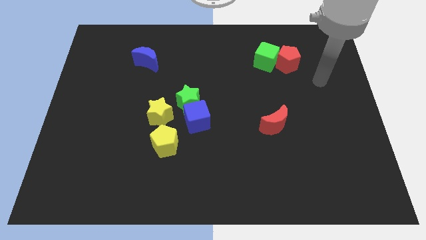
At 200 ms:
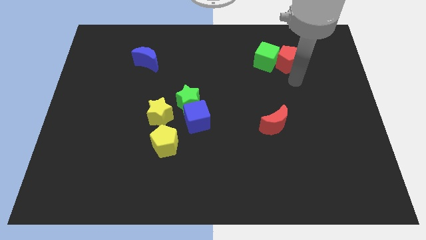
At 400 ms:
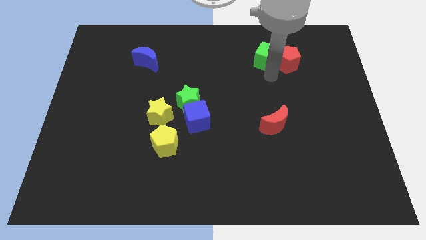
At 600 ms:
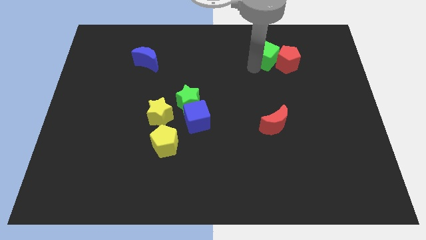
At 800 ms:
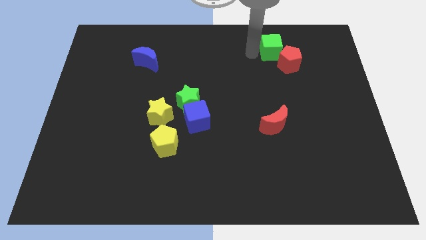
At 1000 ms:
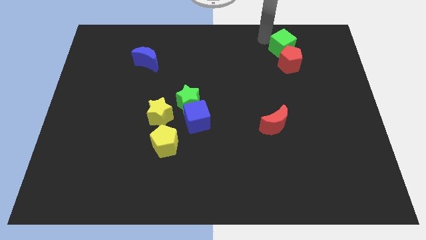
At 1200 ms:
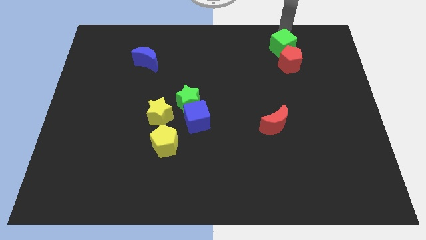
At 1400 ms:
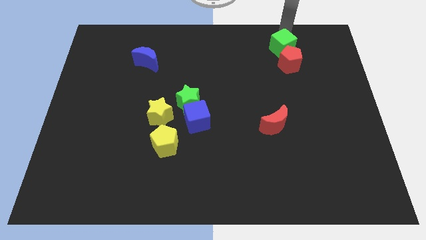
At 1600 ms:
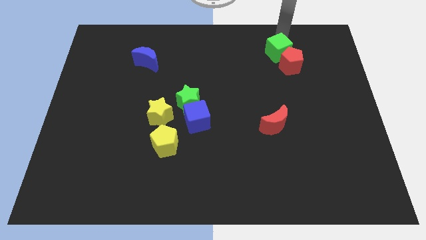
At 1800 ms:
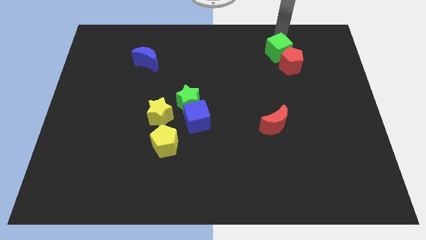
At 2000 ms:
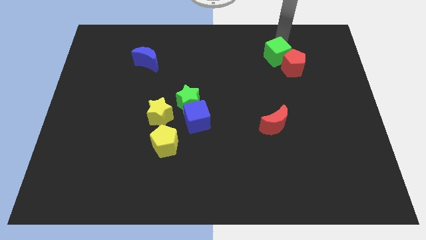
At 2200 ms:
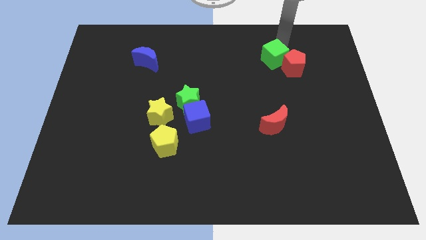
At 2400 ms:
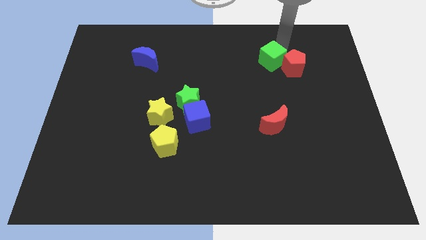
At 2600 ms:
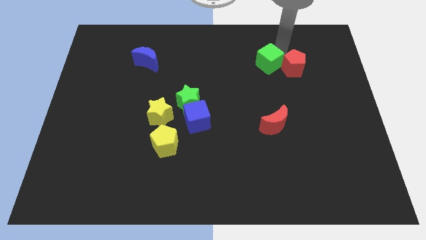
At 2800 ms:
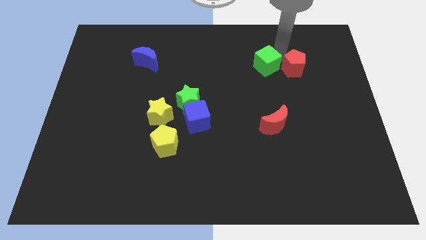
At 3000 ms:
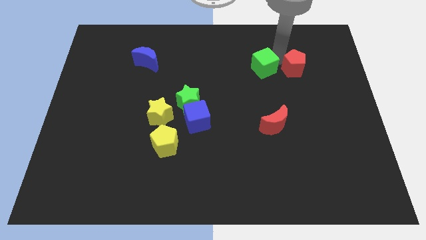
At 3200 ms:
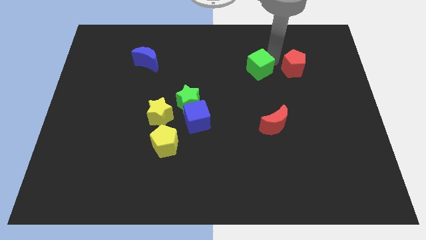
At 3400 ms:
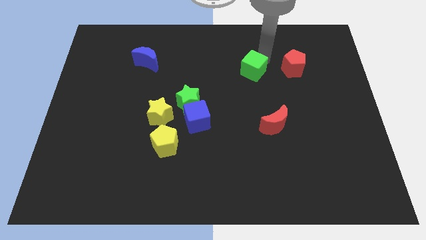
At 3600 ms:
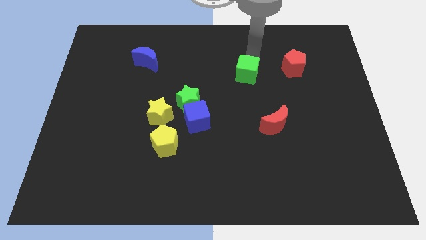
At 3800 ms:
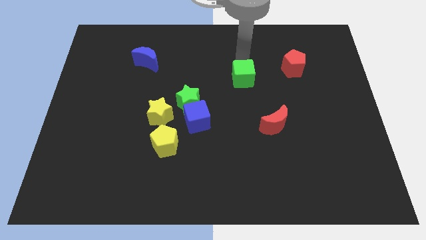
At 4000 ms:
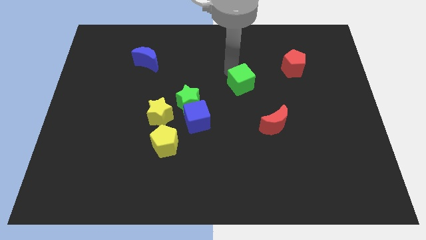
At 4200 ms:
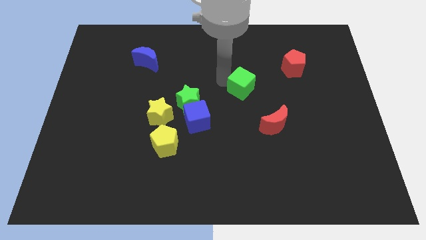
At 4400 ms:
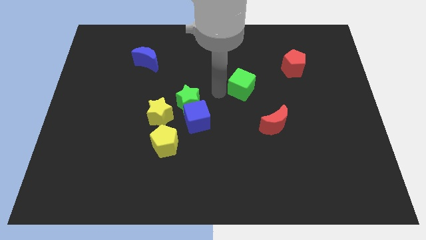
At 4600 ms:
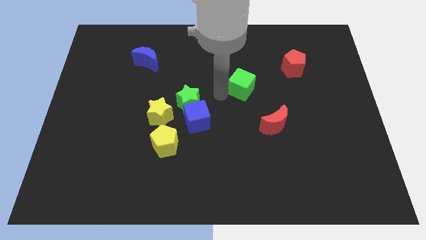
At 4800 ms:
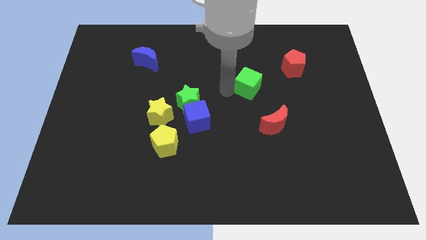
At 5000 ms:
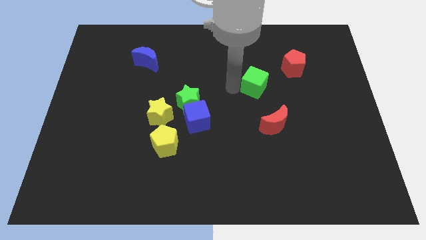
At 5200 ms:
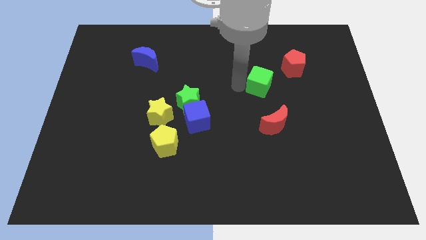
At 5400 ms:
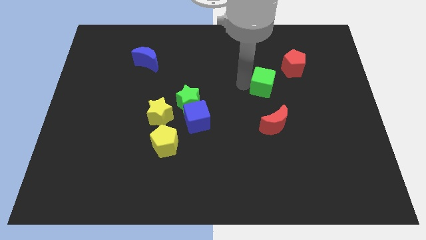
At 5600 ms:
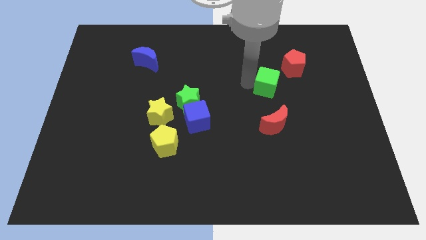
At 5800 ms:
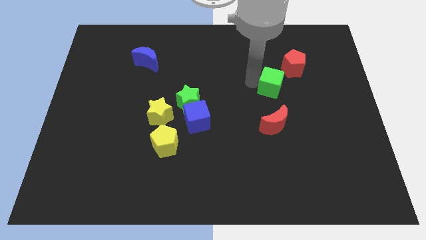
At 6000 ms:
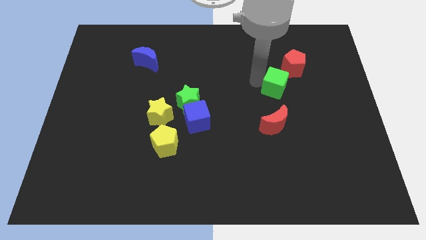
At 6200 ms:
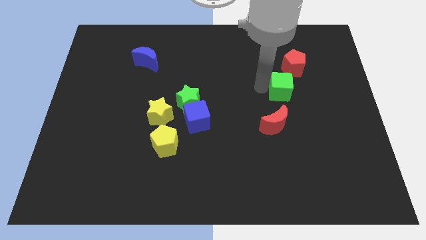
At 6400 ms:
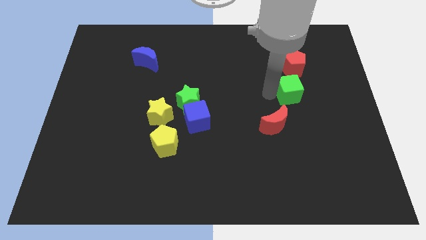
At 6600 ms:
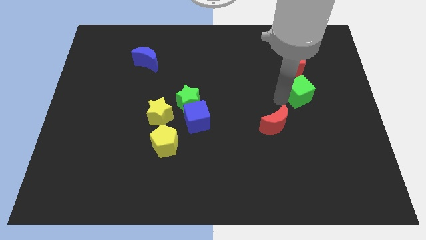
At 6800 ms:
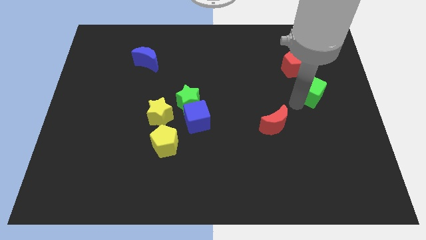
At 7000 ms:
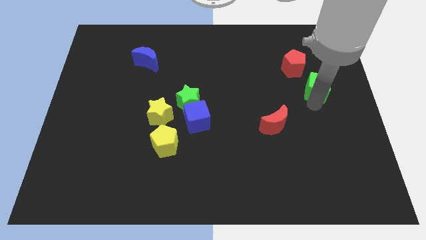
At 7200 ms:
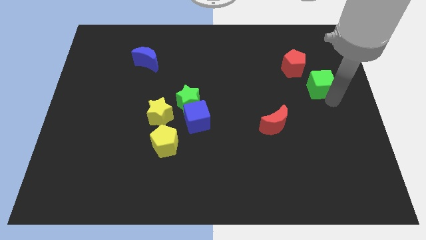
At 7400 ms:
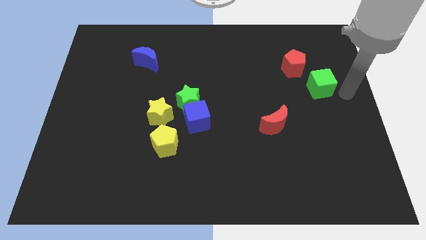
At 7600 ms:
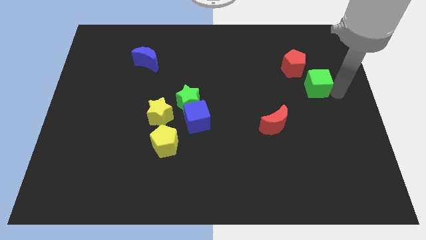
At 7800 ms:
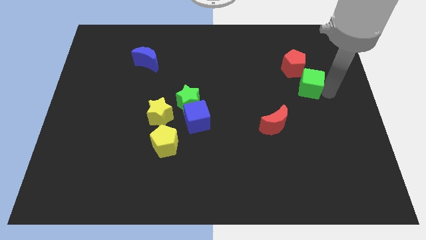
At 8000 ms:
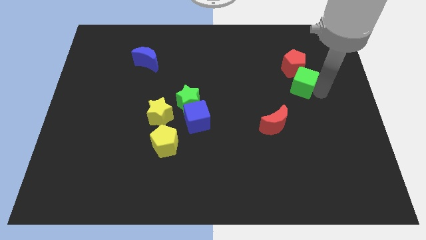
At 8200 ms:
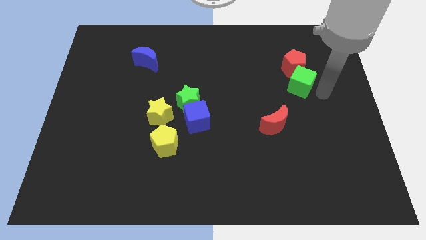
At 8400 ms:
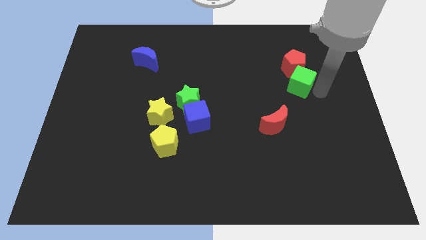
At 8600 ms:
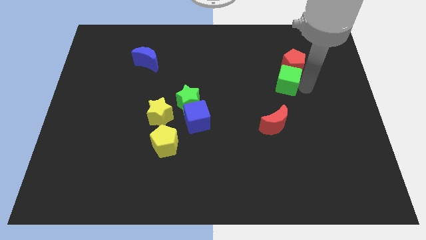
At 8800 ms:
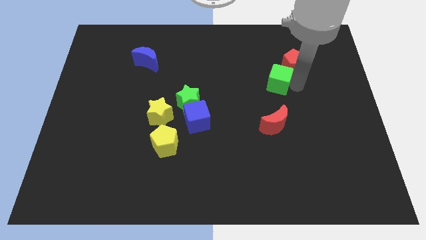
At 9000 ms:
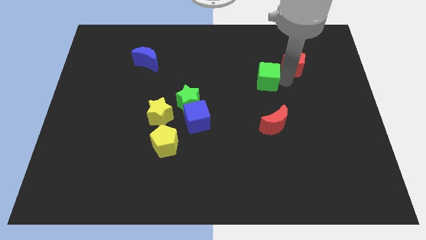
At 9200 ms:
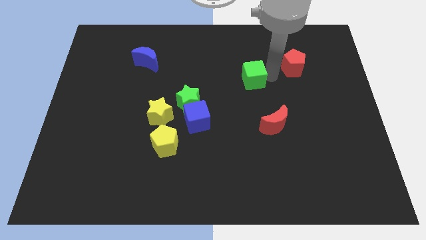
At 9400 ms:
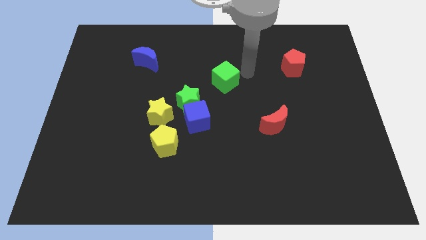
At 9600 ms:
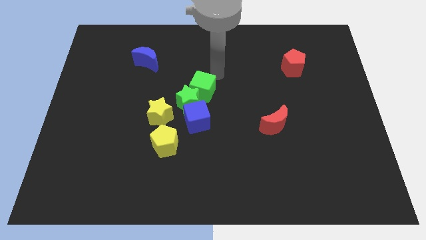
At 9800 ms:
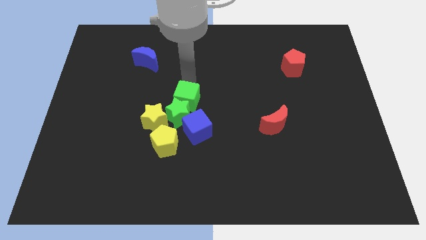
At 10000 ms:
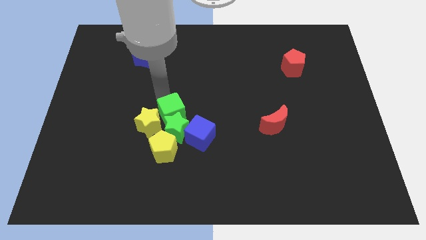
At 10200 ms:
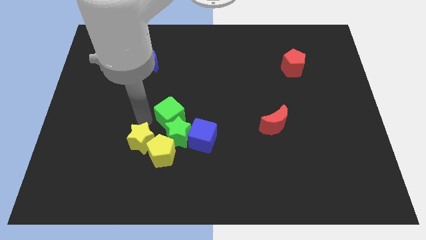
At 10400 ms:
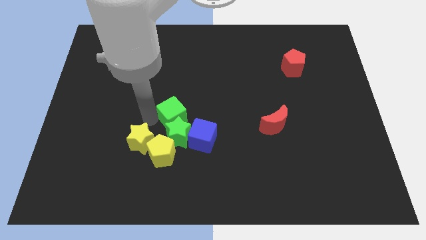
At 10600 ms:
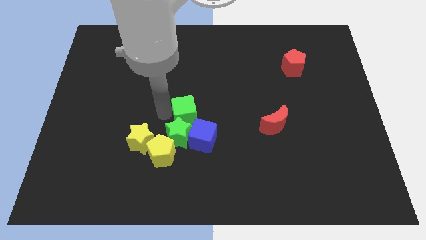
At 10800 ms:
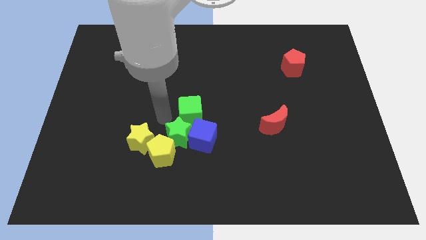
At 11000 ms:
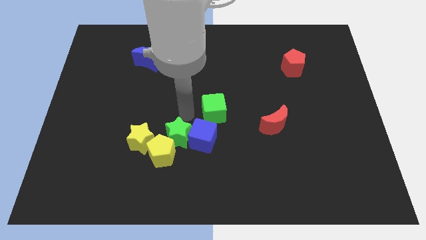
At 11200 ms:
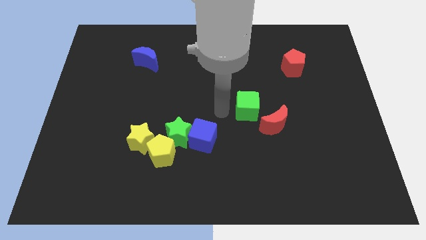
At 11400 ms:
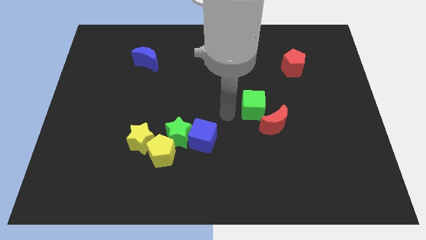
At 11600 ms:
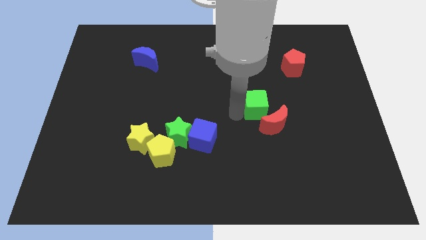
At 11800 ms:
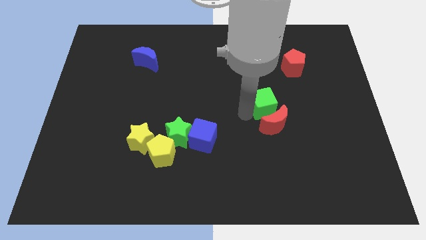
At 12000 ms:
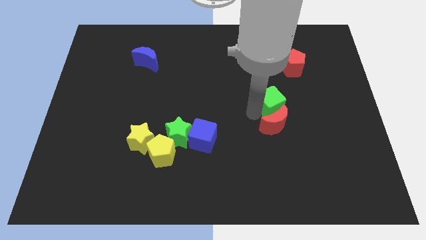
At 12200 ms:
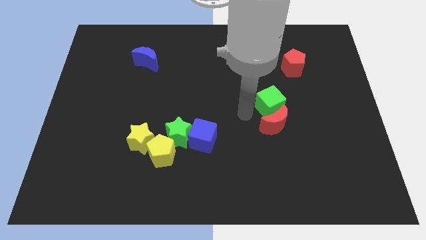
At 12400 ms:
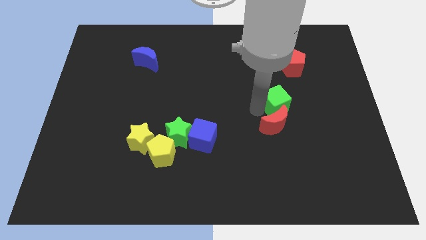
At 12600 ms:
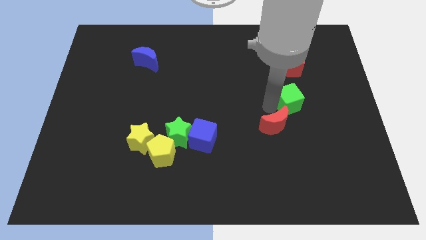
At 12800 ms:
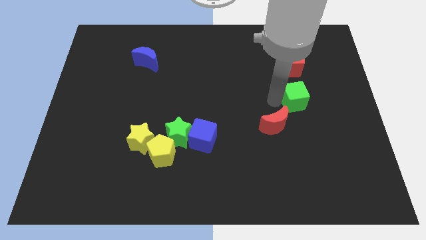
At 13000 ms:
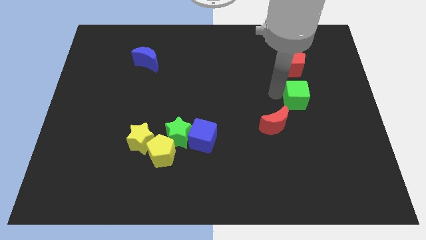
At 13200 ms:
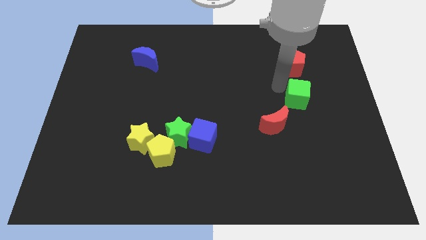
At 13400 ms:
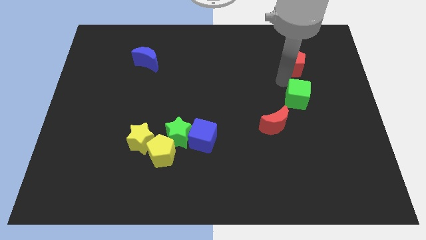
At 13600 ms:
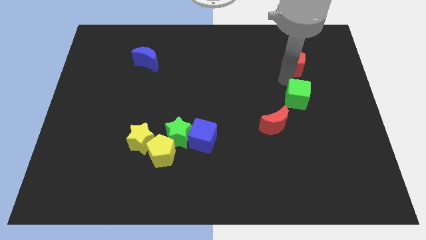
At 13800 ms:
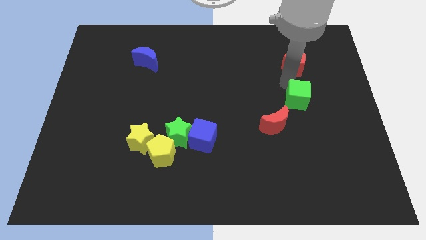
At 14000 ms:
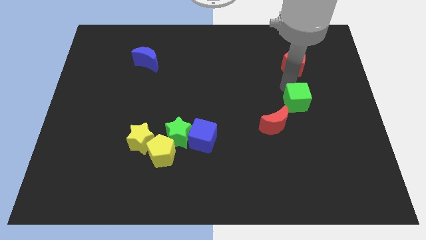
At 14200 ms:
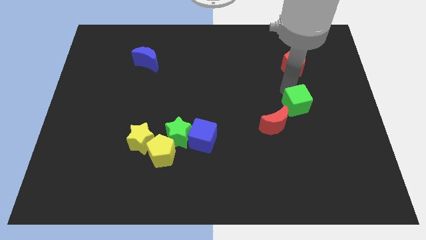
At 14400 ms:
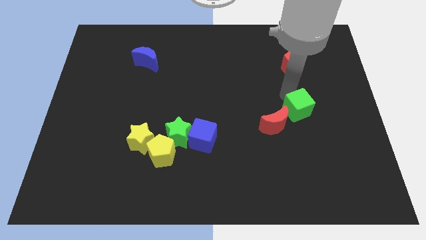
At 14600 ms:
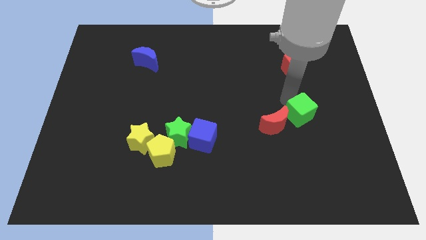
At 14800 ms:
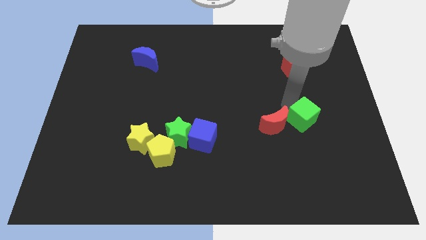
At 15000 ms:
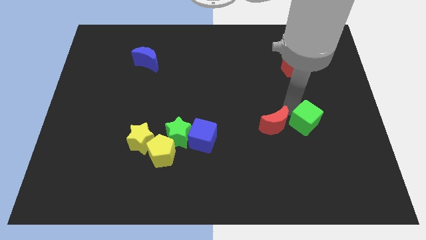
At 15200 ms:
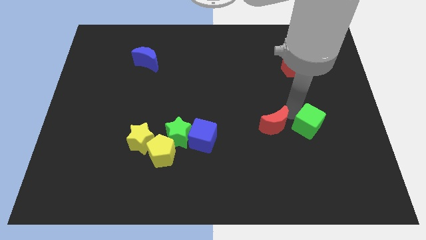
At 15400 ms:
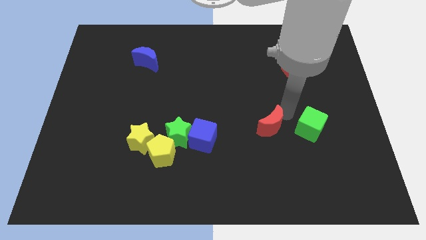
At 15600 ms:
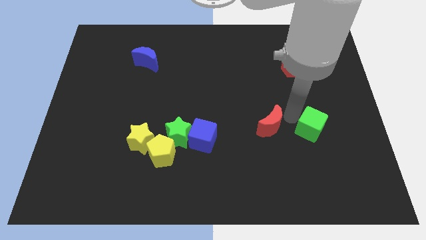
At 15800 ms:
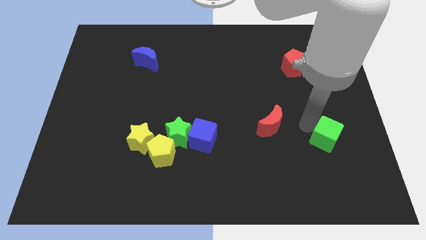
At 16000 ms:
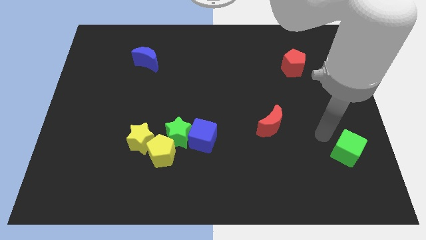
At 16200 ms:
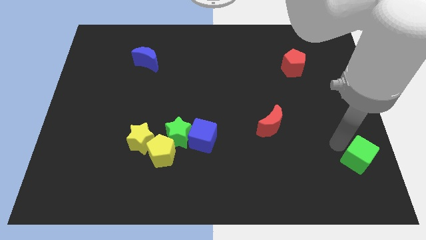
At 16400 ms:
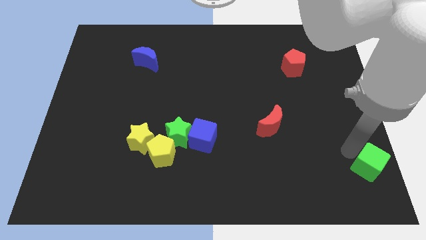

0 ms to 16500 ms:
move the green cube to the bottom right corner
